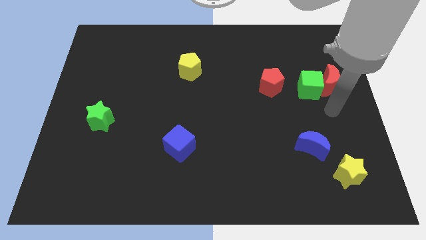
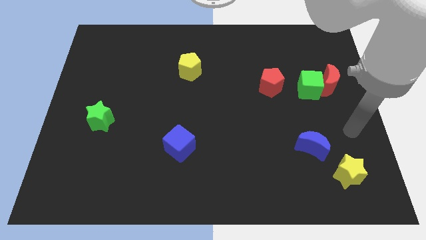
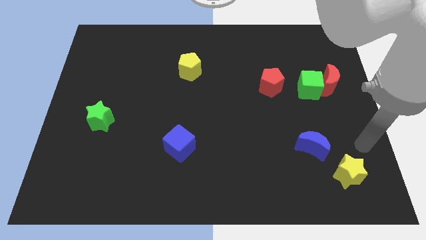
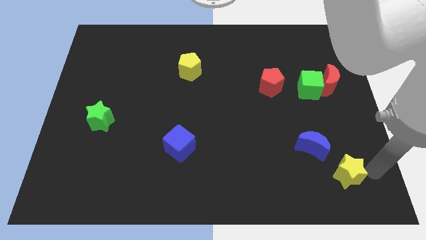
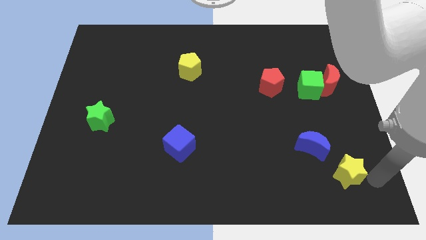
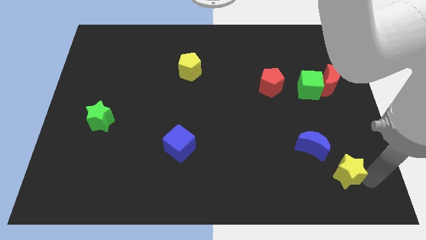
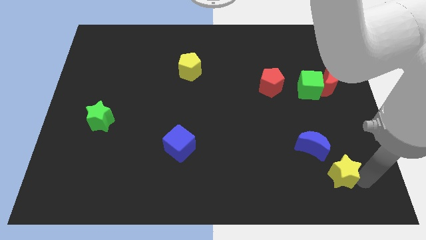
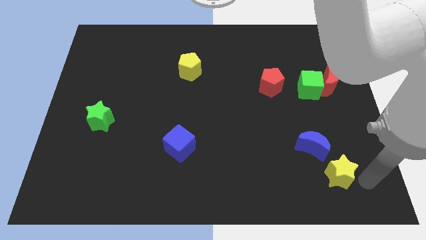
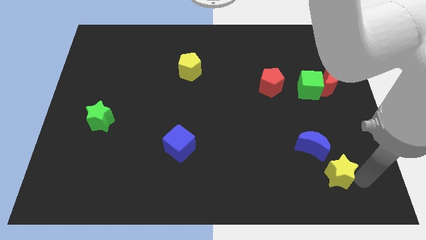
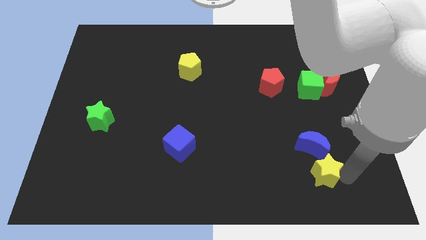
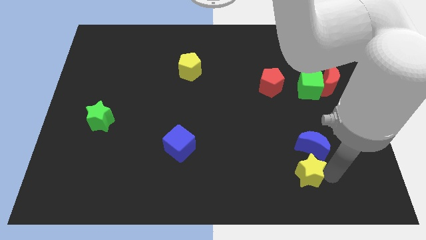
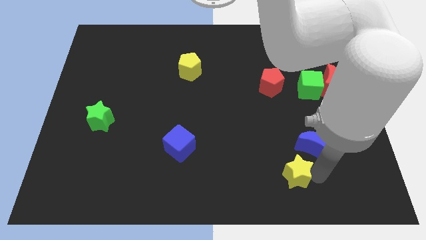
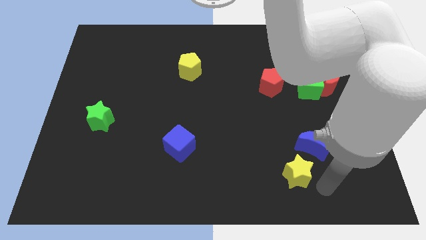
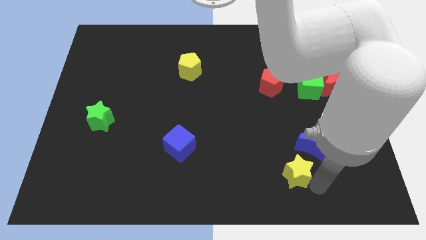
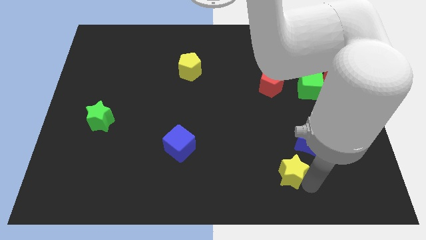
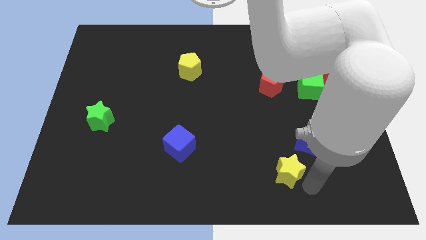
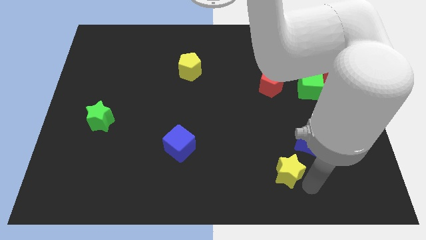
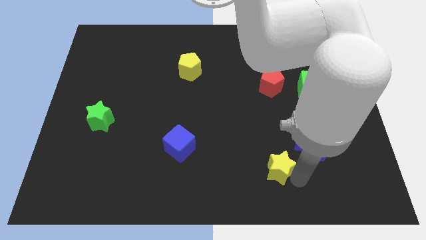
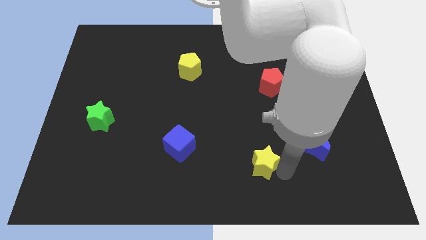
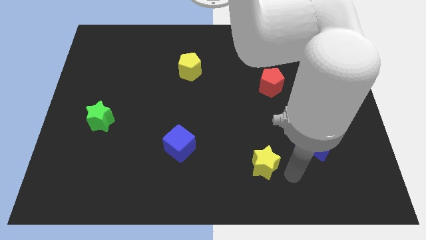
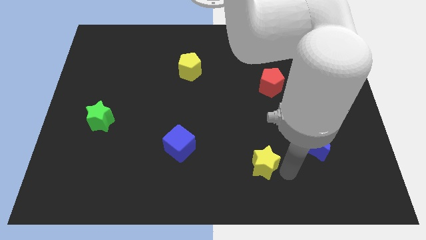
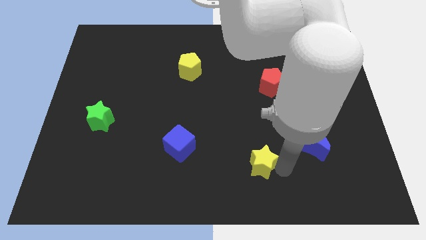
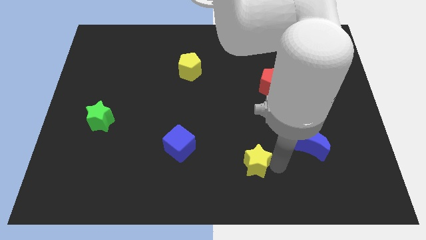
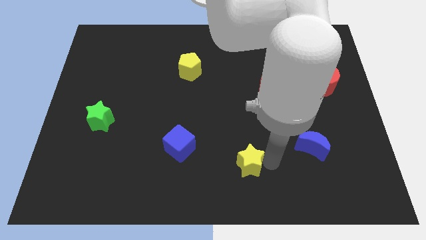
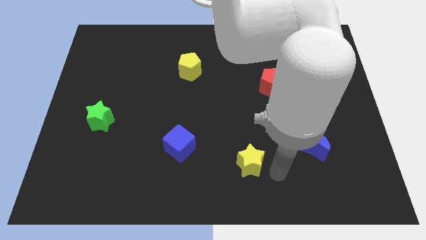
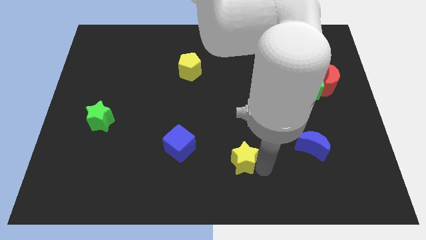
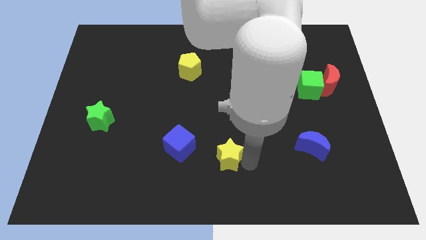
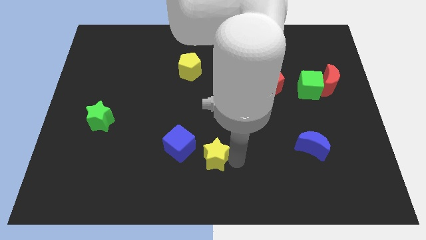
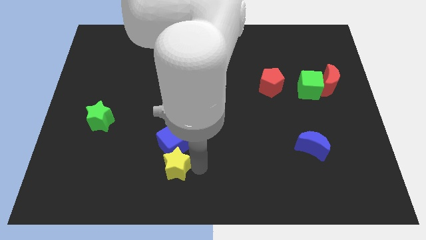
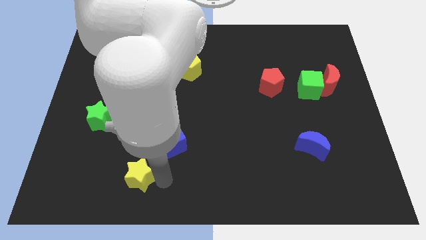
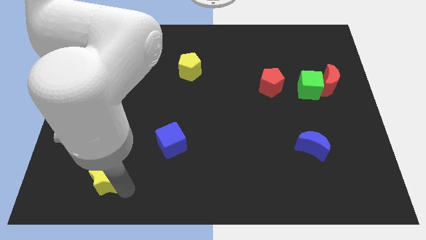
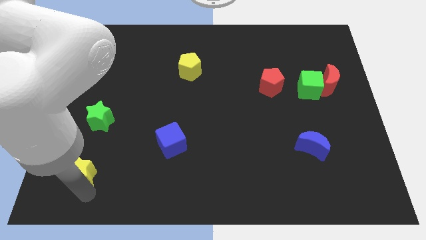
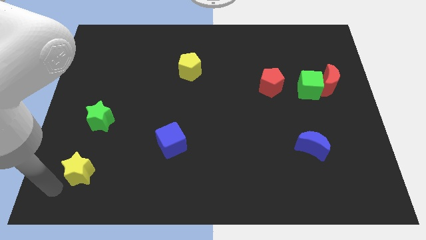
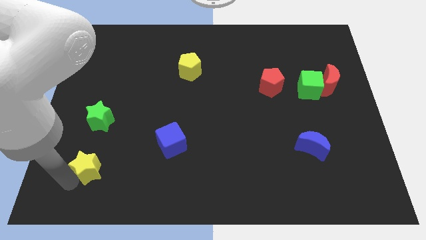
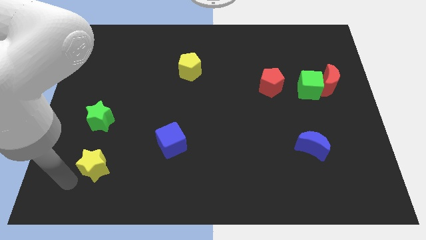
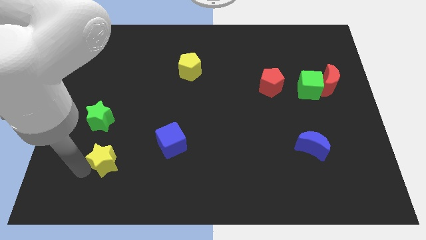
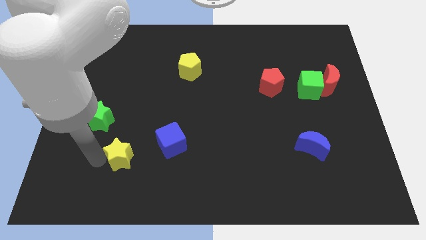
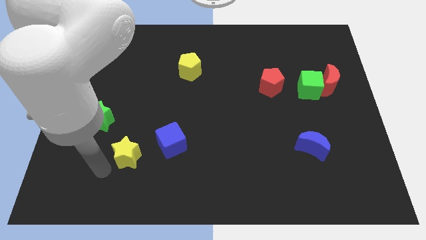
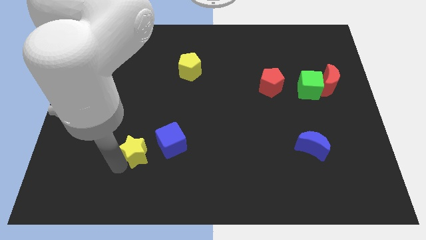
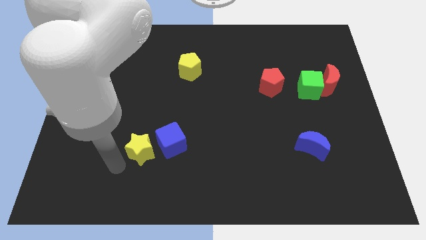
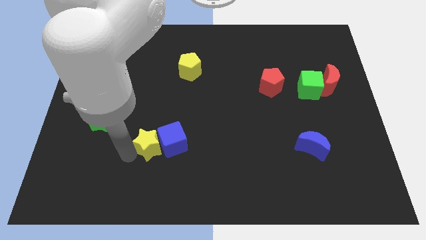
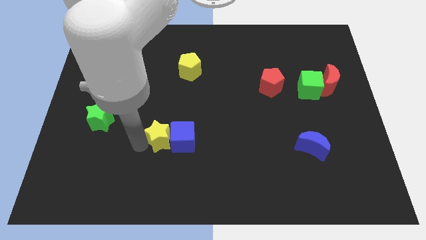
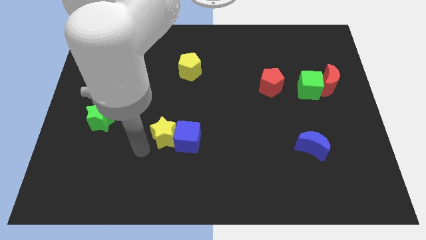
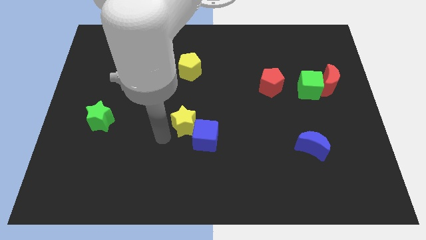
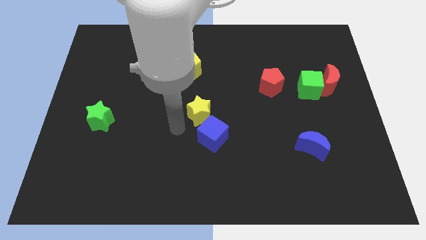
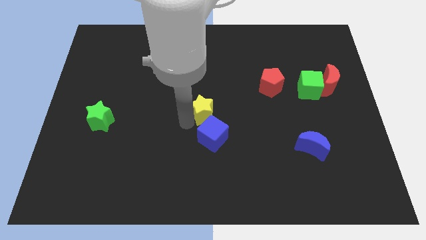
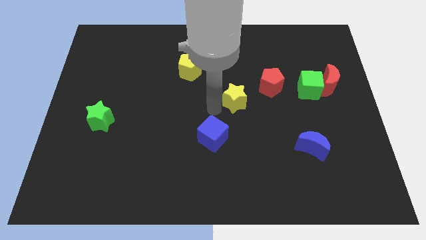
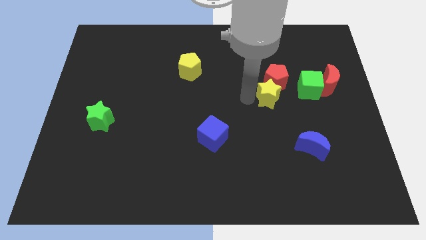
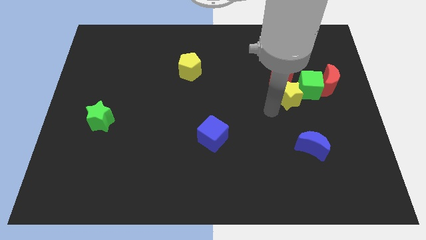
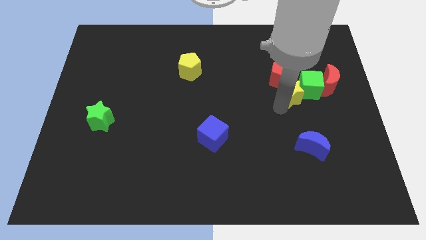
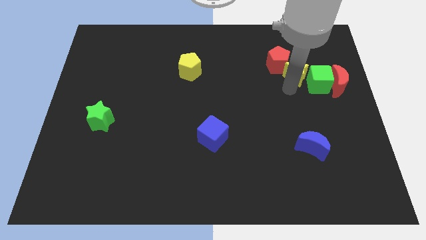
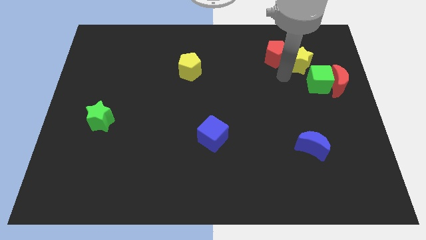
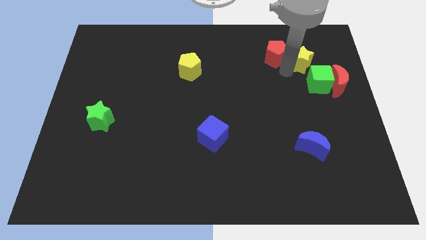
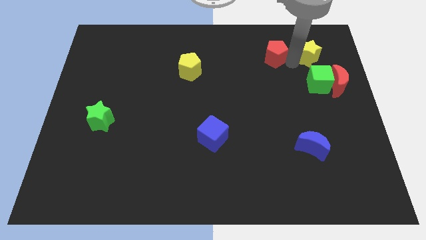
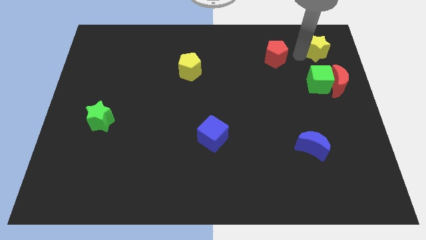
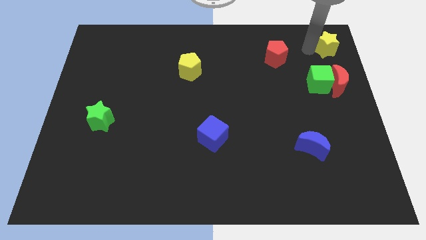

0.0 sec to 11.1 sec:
move the yellow star to the top right corner

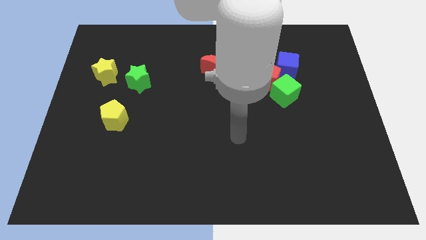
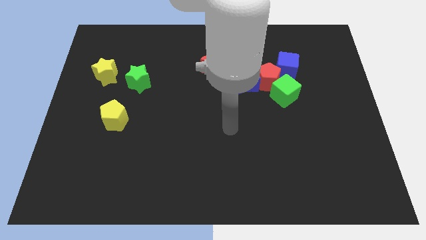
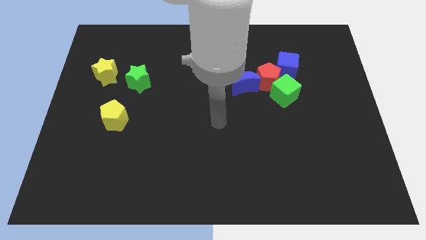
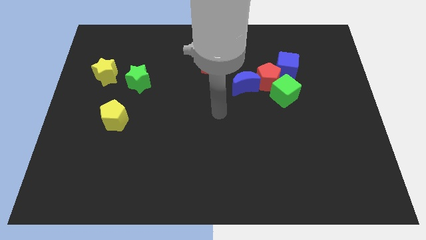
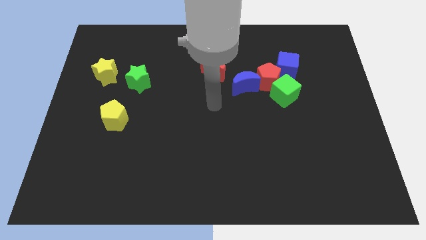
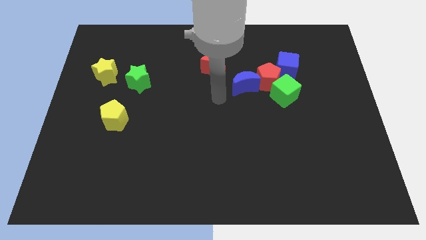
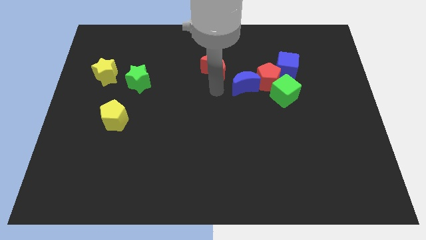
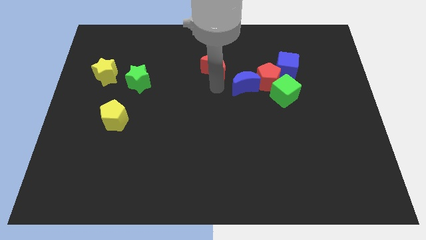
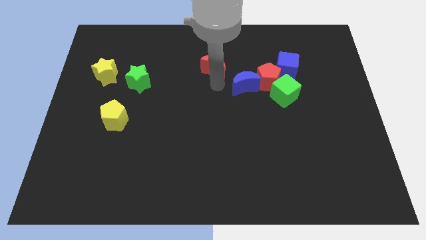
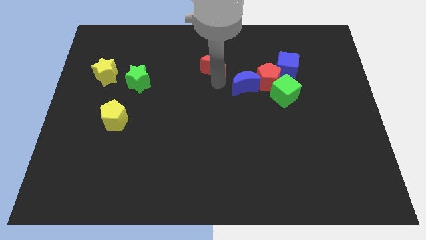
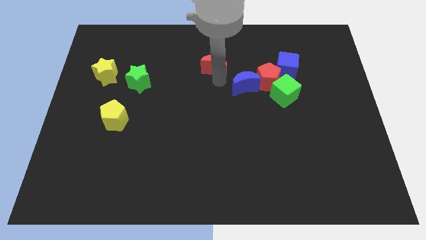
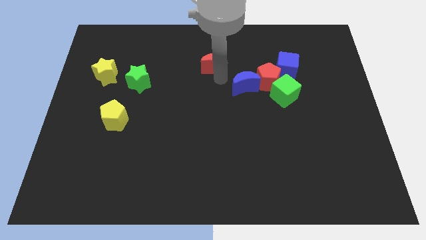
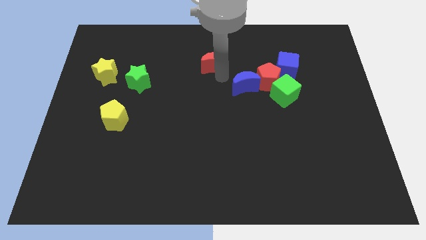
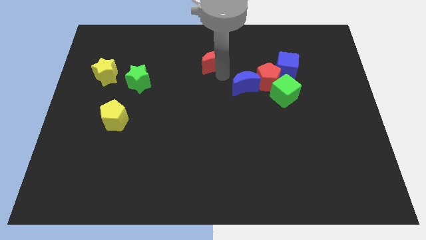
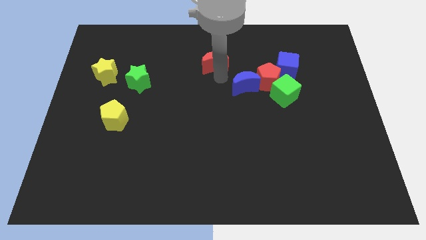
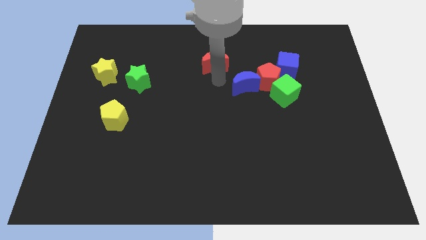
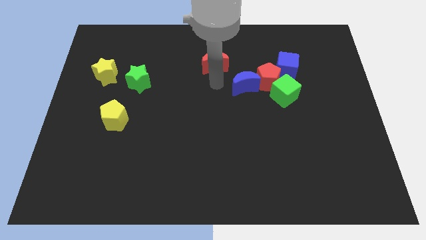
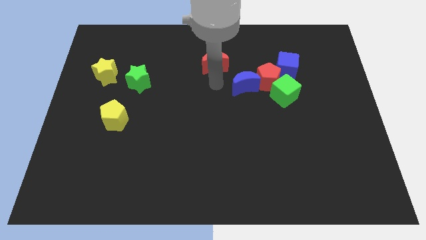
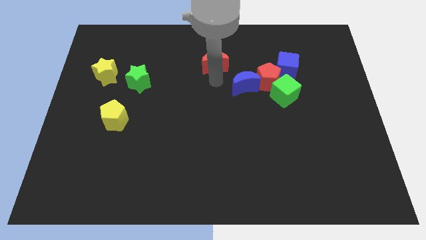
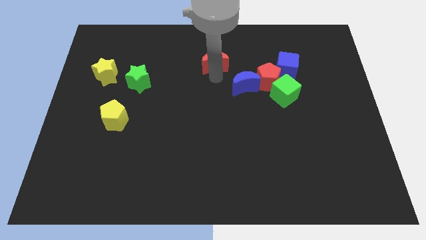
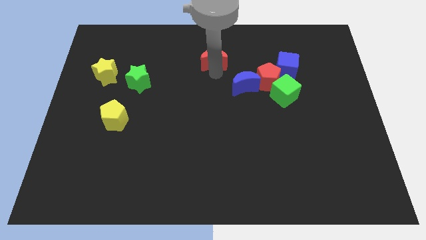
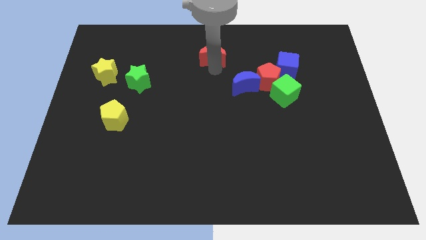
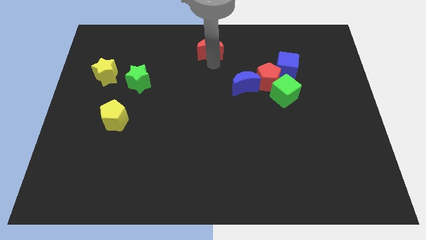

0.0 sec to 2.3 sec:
slide the red moon to the top side
